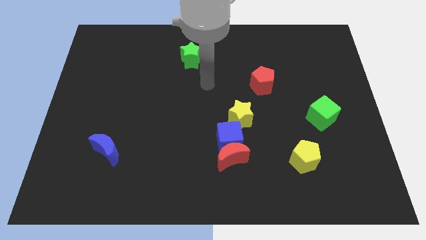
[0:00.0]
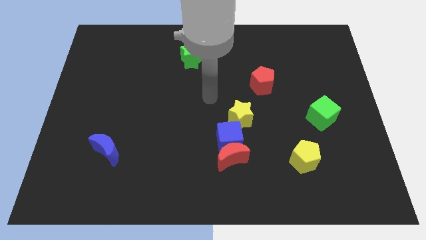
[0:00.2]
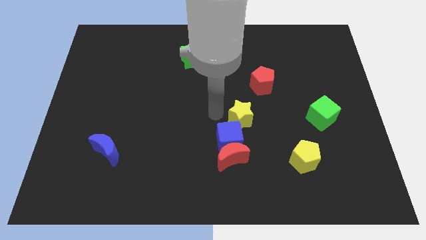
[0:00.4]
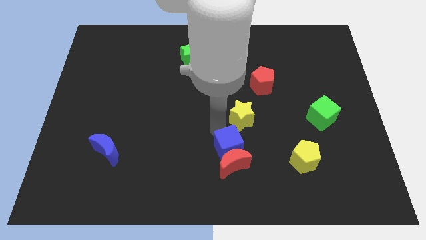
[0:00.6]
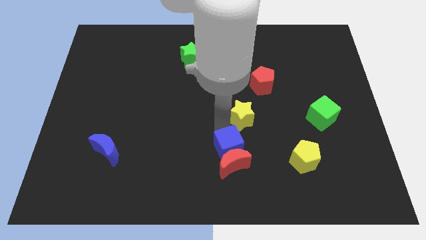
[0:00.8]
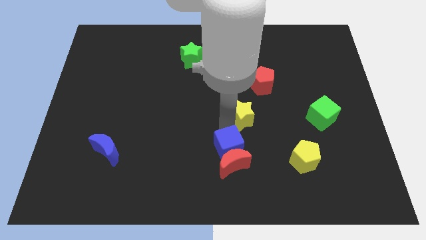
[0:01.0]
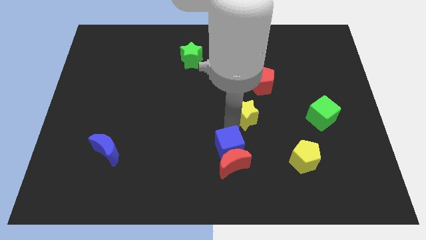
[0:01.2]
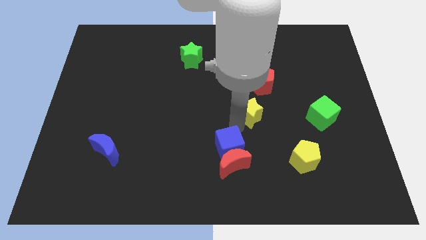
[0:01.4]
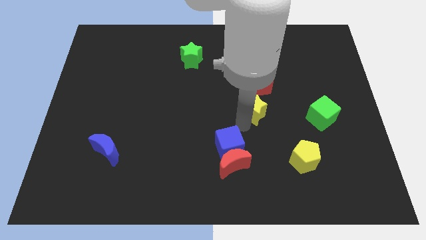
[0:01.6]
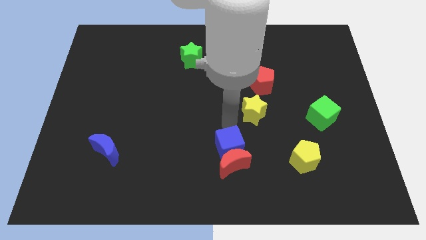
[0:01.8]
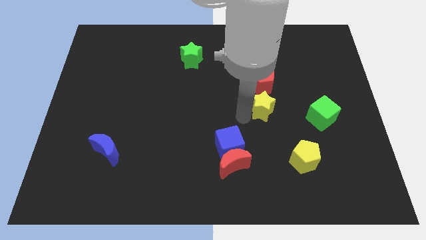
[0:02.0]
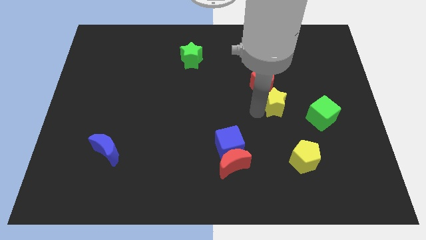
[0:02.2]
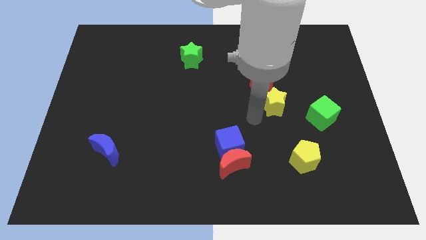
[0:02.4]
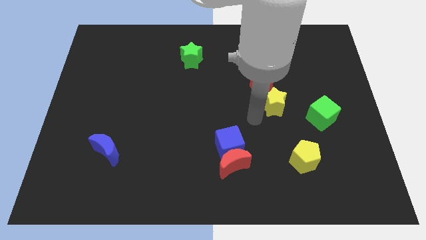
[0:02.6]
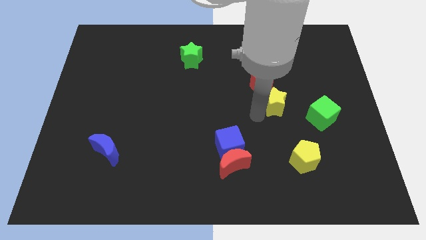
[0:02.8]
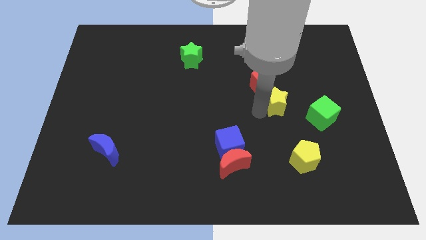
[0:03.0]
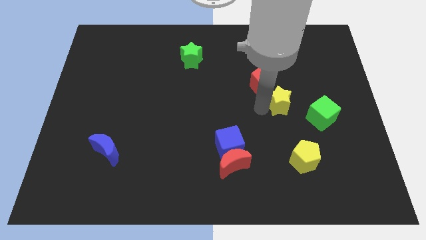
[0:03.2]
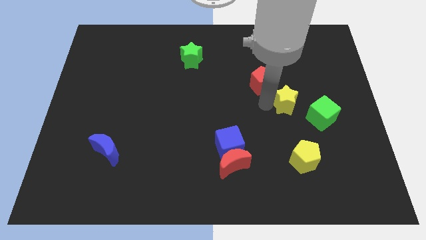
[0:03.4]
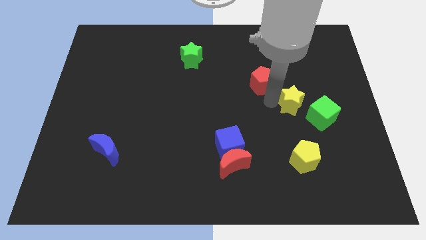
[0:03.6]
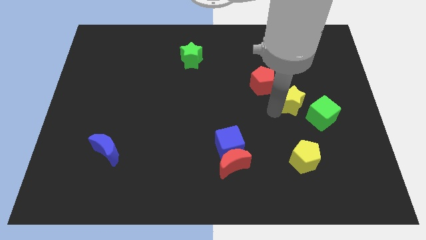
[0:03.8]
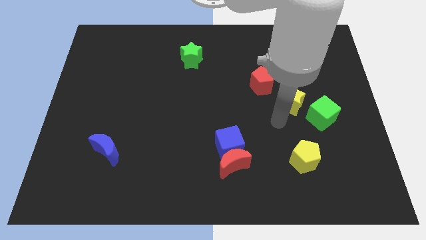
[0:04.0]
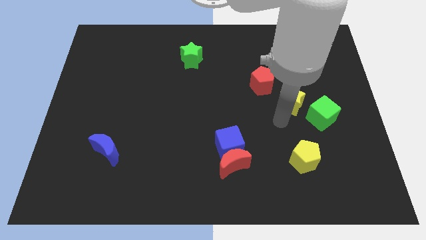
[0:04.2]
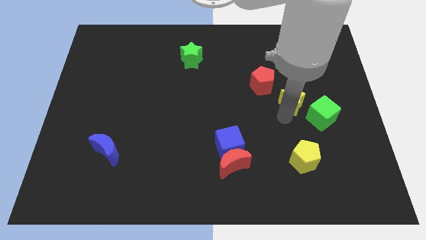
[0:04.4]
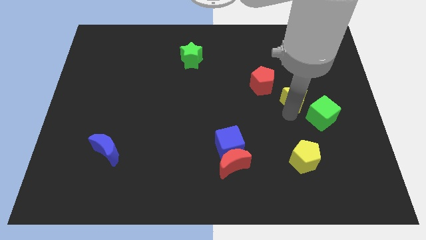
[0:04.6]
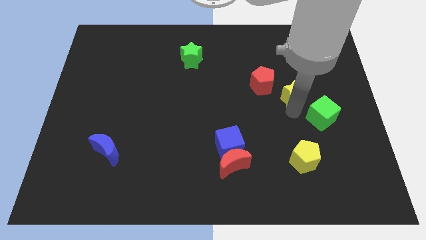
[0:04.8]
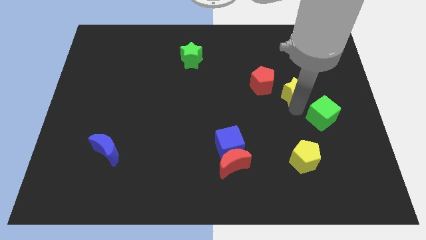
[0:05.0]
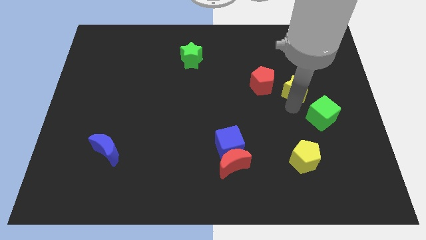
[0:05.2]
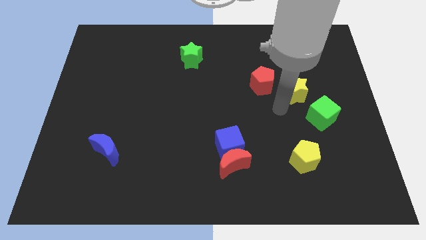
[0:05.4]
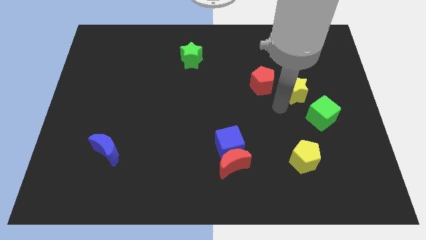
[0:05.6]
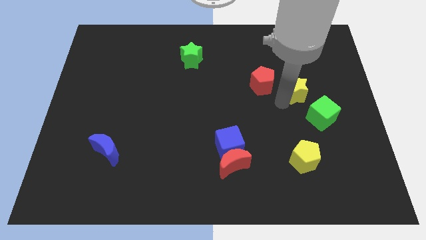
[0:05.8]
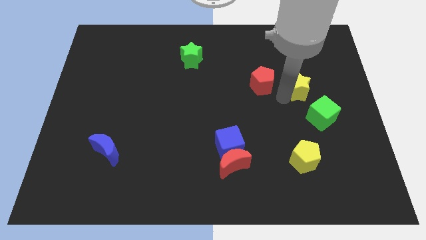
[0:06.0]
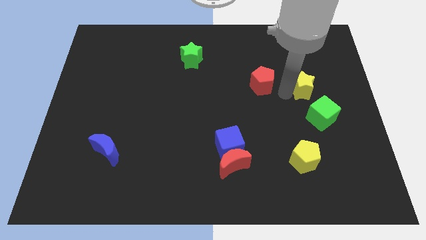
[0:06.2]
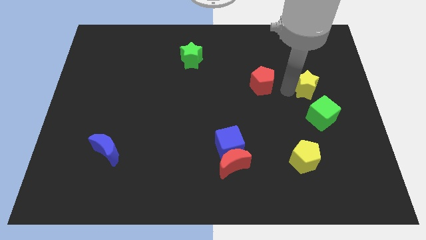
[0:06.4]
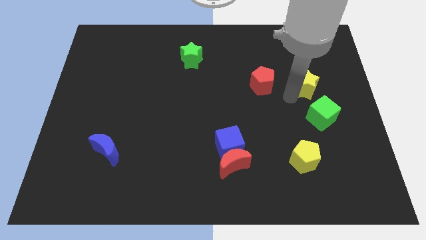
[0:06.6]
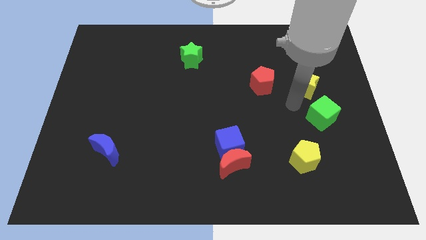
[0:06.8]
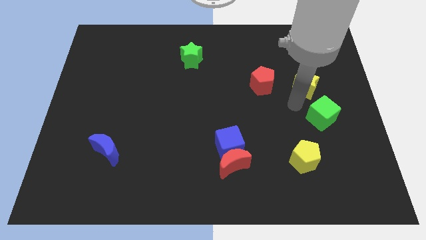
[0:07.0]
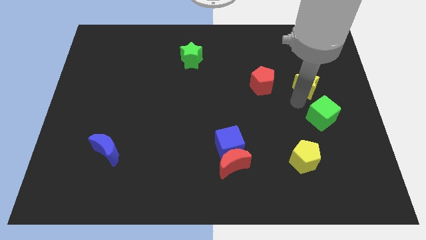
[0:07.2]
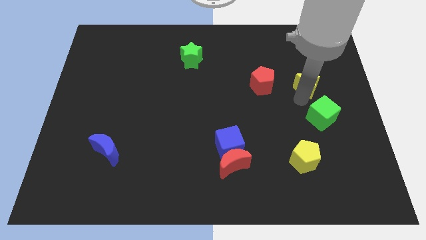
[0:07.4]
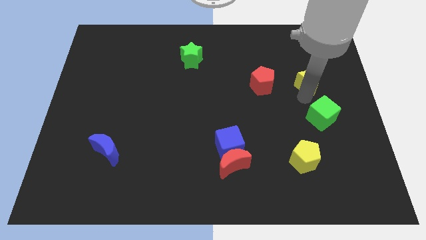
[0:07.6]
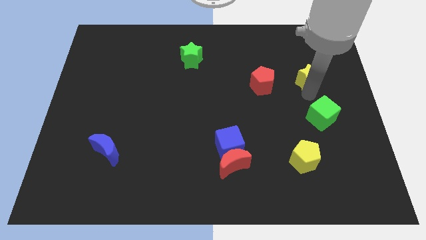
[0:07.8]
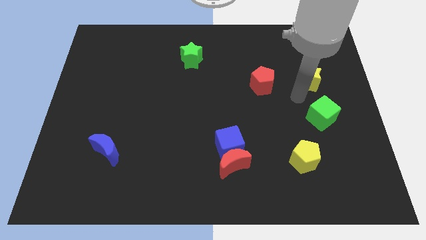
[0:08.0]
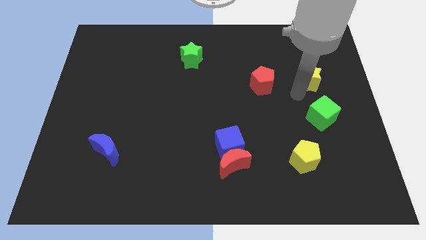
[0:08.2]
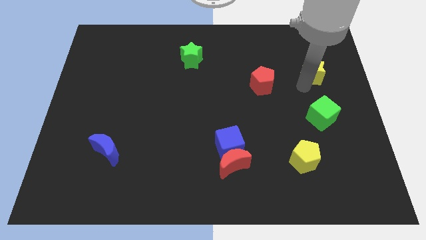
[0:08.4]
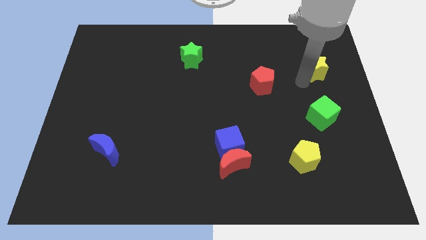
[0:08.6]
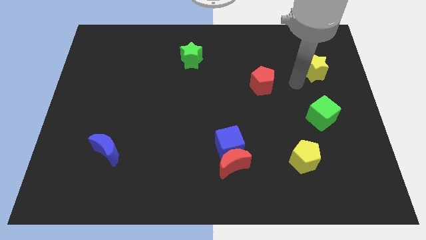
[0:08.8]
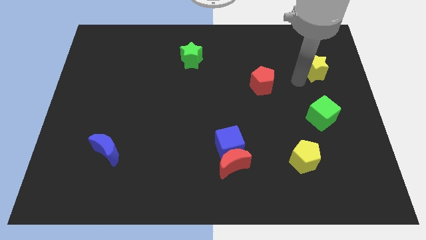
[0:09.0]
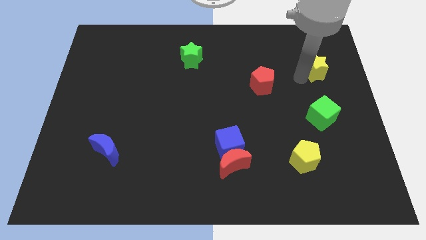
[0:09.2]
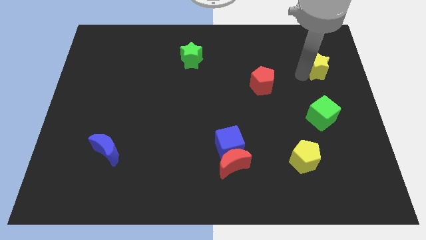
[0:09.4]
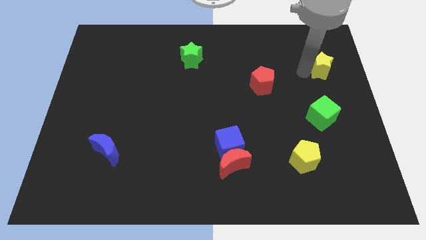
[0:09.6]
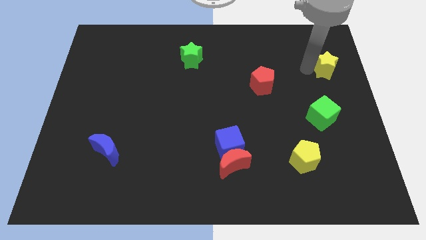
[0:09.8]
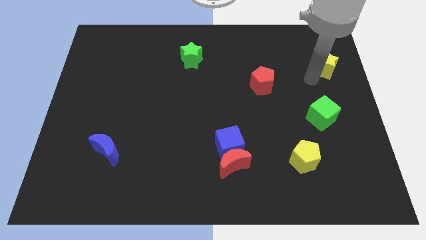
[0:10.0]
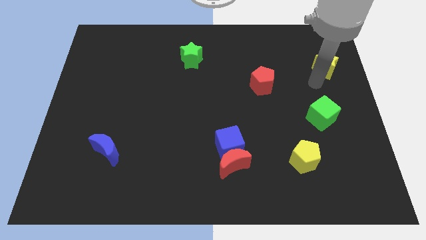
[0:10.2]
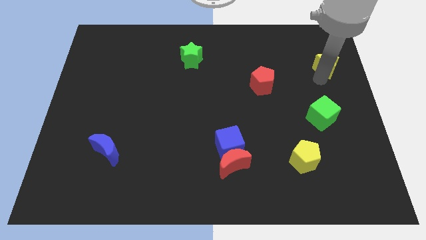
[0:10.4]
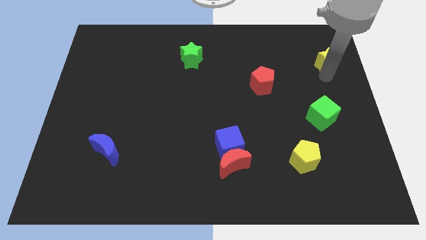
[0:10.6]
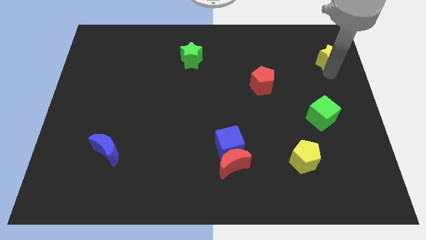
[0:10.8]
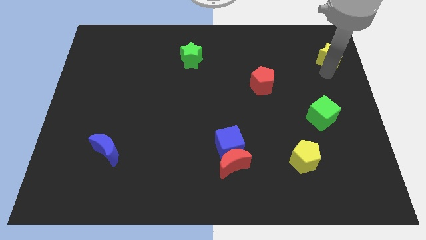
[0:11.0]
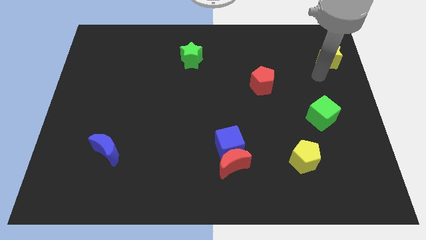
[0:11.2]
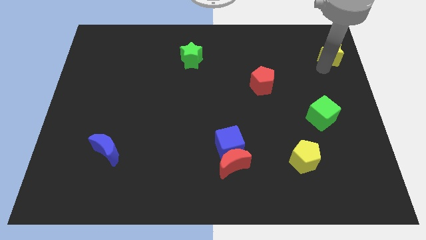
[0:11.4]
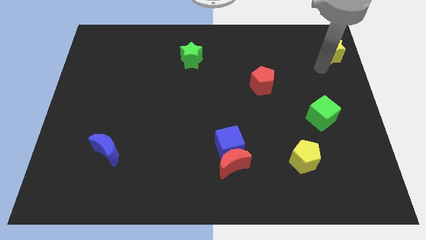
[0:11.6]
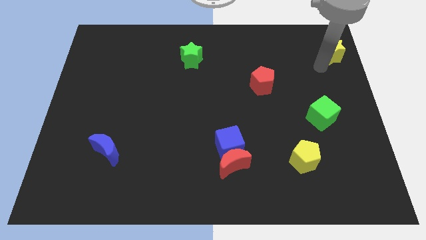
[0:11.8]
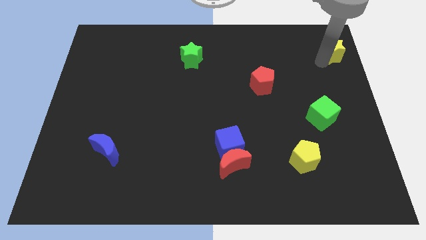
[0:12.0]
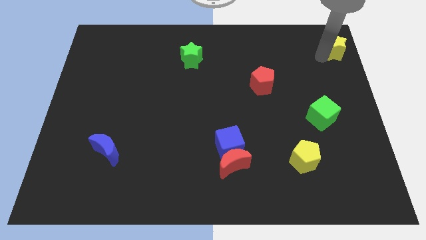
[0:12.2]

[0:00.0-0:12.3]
slide the yellow star to the upper right corner
